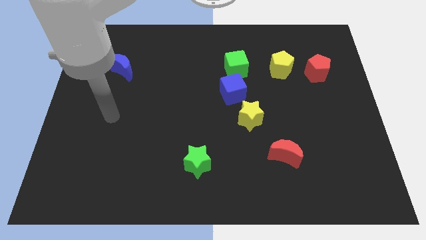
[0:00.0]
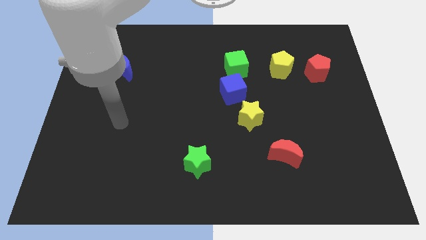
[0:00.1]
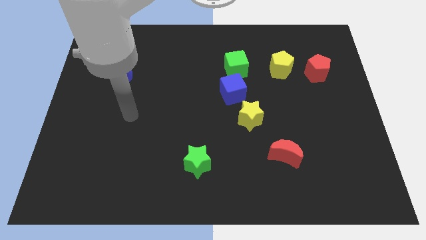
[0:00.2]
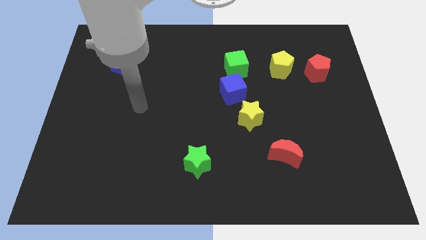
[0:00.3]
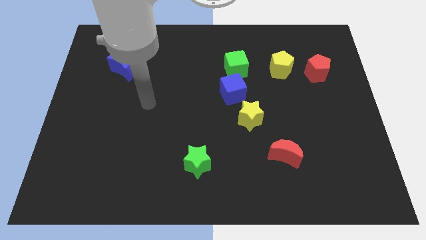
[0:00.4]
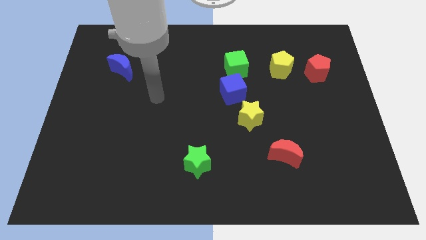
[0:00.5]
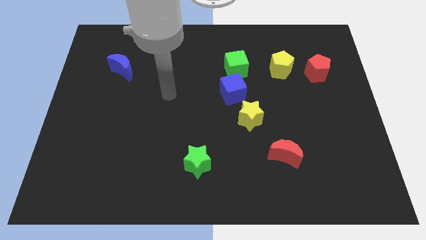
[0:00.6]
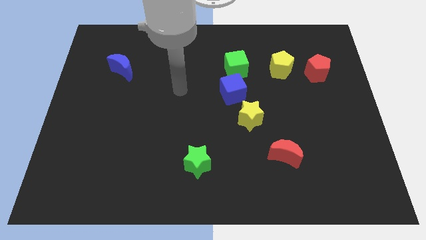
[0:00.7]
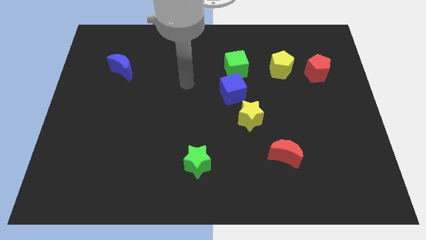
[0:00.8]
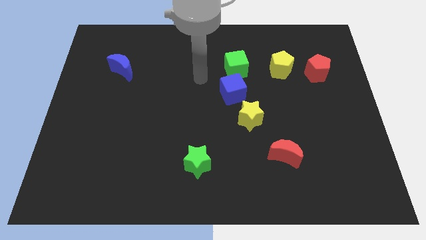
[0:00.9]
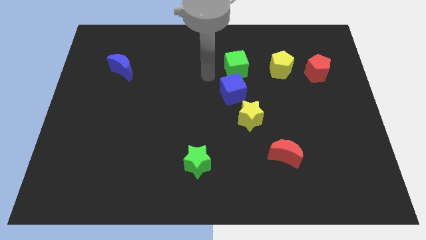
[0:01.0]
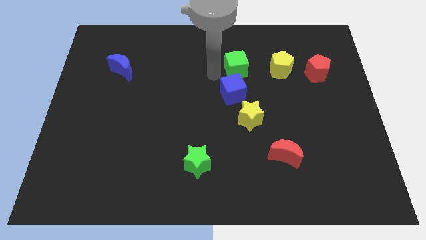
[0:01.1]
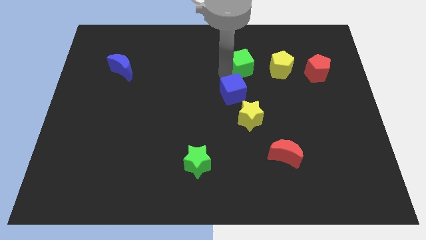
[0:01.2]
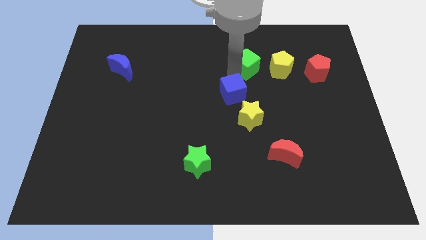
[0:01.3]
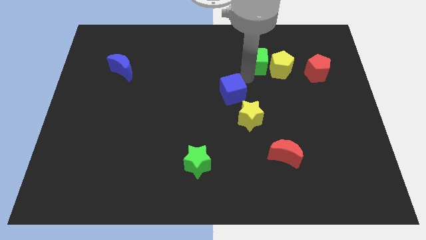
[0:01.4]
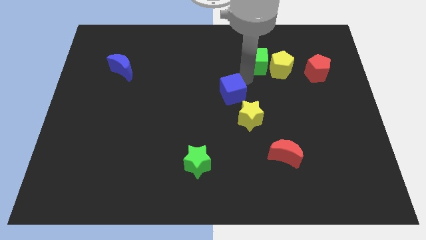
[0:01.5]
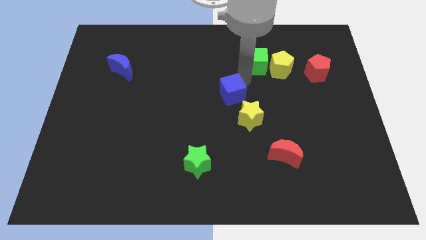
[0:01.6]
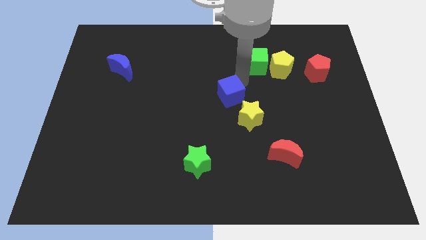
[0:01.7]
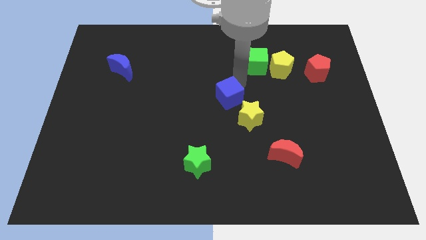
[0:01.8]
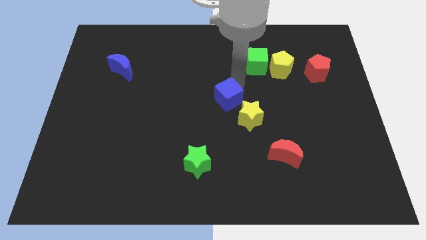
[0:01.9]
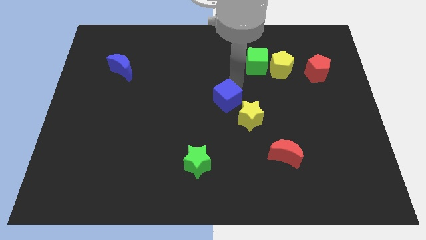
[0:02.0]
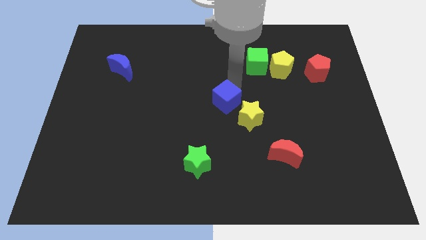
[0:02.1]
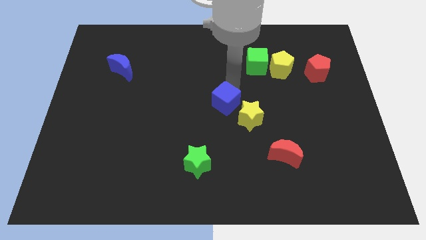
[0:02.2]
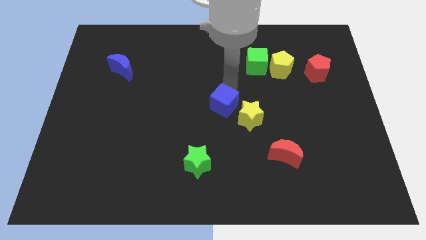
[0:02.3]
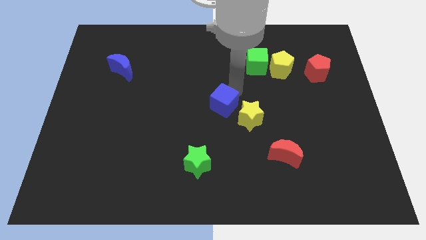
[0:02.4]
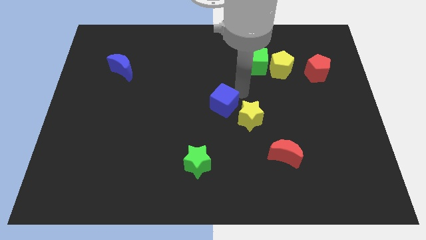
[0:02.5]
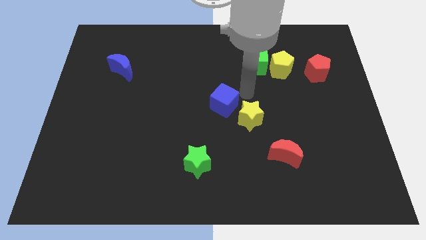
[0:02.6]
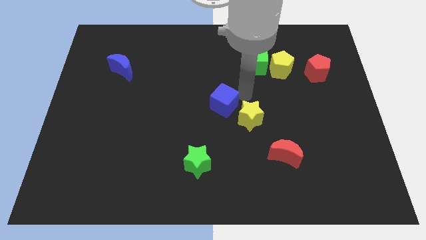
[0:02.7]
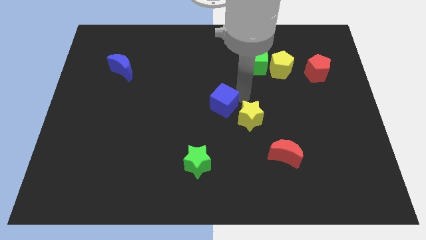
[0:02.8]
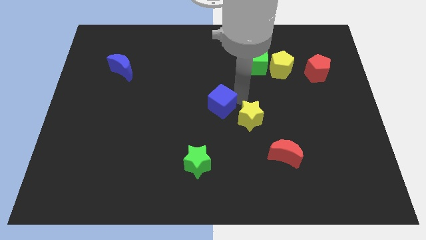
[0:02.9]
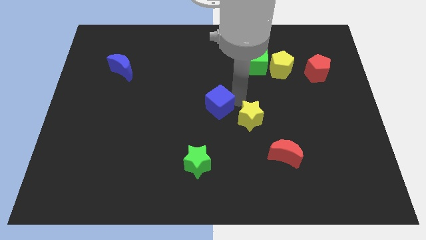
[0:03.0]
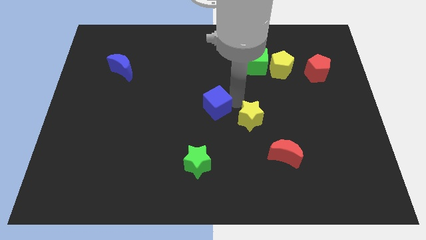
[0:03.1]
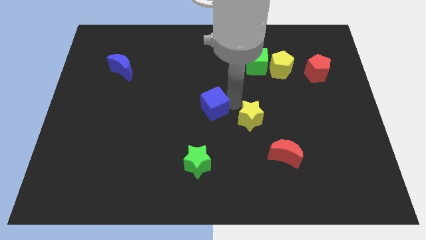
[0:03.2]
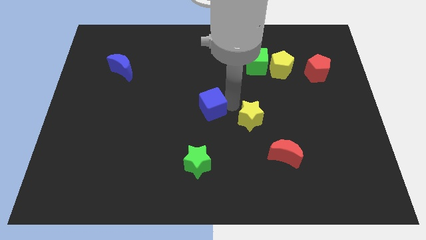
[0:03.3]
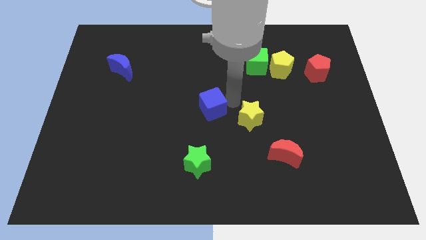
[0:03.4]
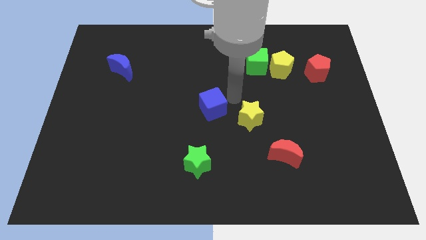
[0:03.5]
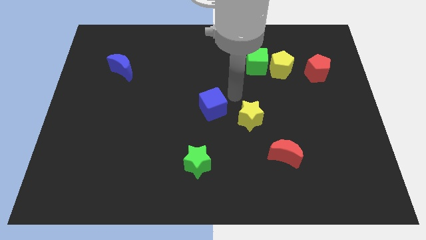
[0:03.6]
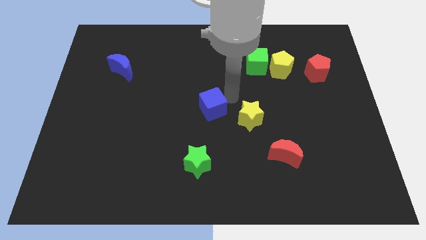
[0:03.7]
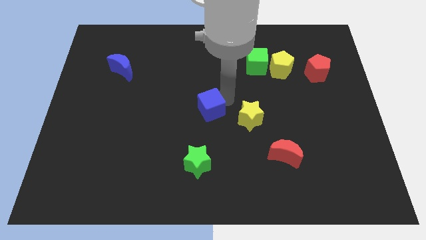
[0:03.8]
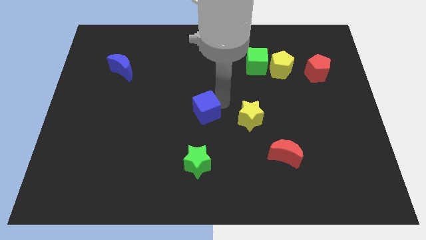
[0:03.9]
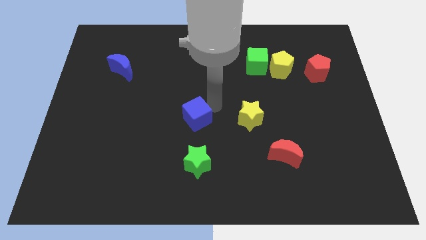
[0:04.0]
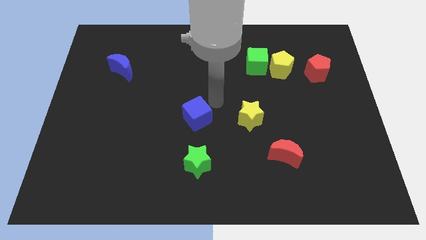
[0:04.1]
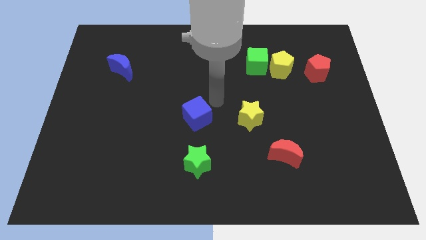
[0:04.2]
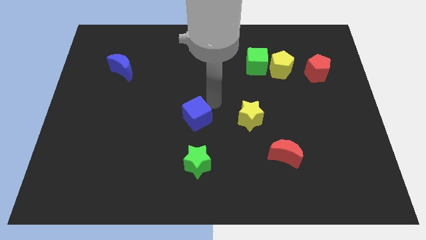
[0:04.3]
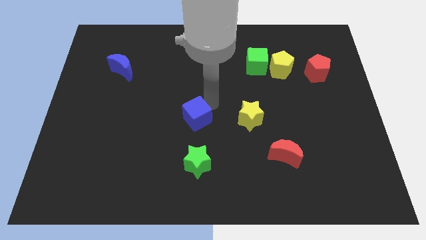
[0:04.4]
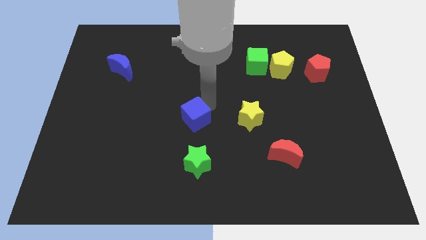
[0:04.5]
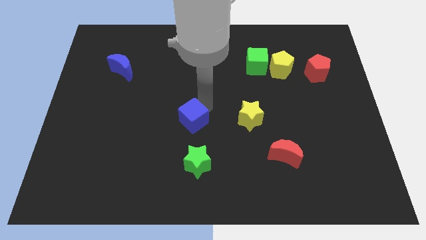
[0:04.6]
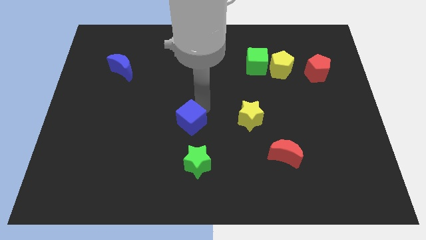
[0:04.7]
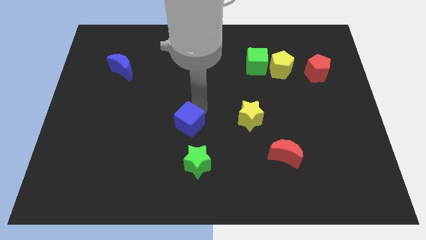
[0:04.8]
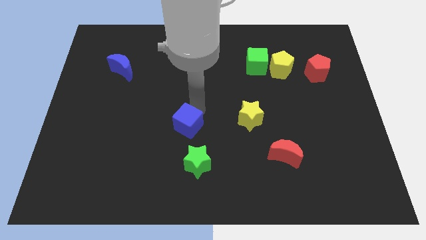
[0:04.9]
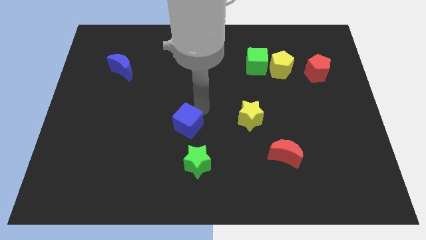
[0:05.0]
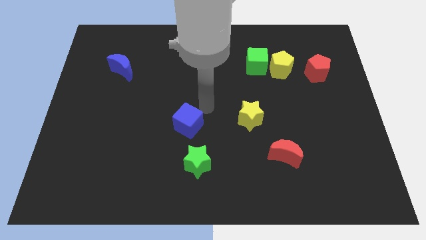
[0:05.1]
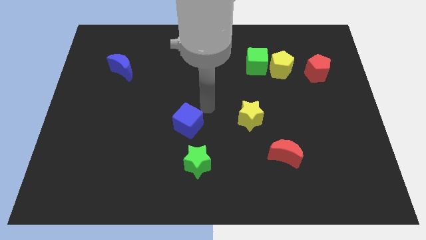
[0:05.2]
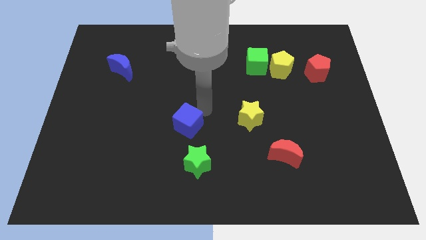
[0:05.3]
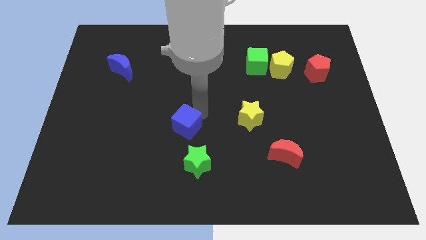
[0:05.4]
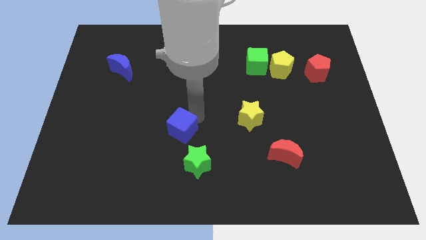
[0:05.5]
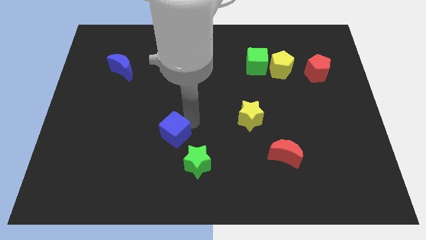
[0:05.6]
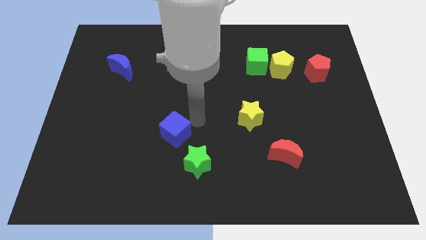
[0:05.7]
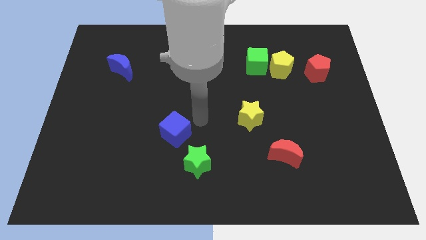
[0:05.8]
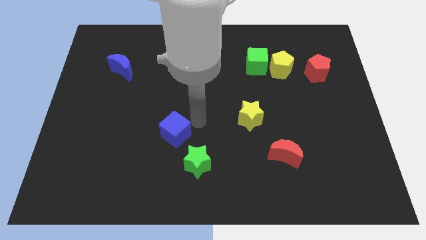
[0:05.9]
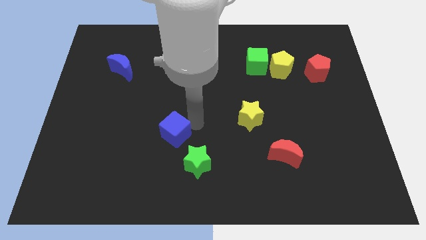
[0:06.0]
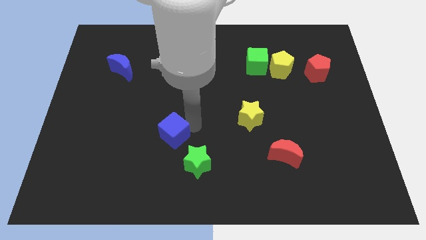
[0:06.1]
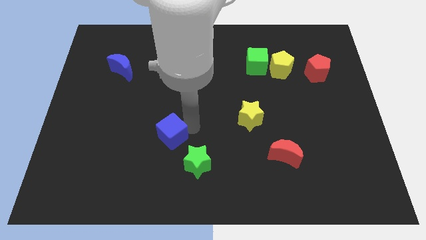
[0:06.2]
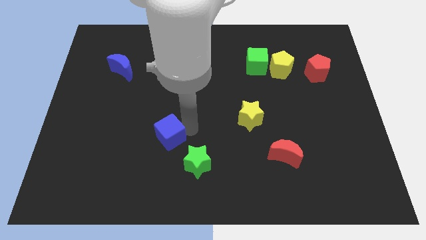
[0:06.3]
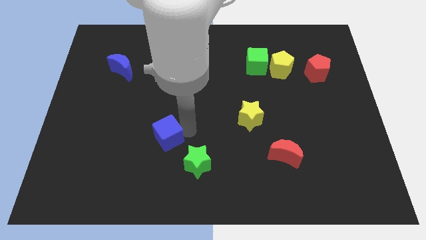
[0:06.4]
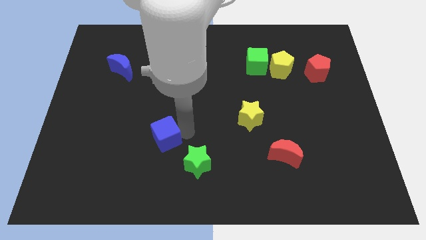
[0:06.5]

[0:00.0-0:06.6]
slide the blue cube diagonally downwards and left

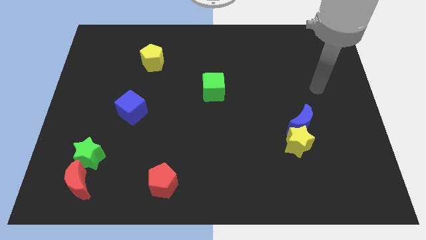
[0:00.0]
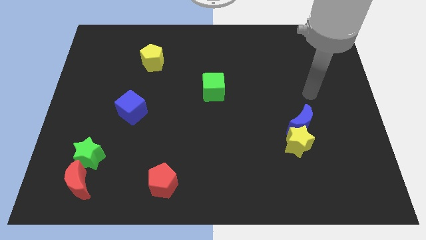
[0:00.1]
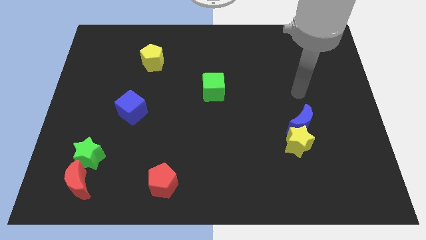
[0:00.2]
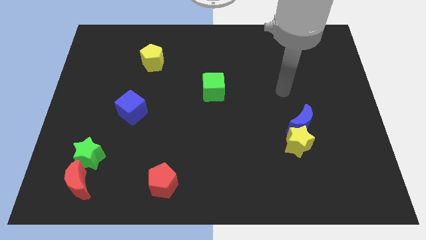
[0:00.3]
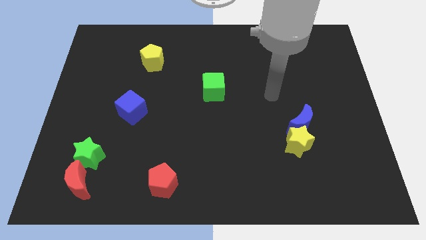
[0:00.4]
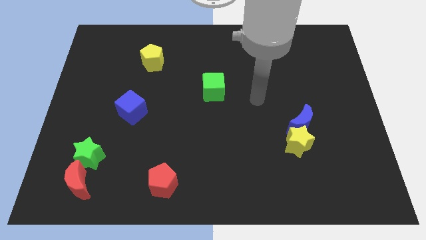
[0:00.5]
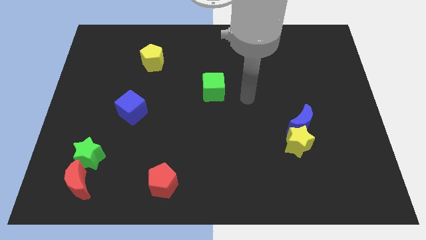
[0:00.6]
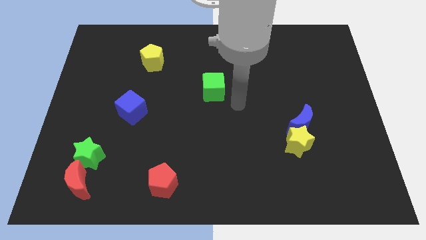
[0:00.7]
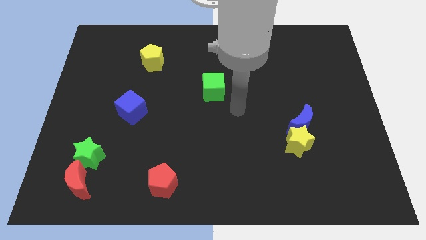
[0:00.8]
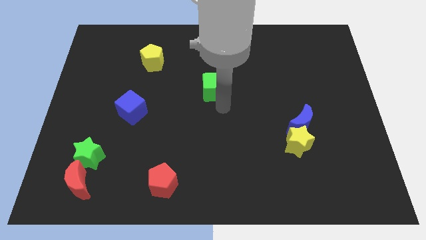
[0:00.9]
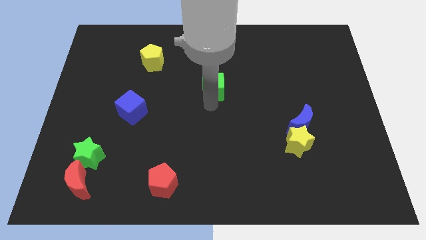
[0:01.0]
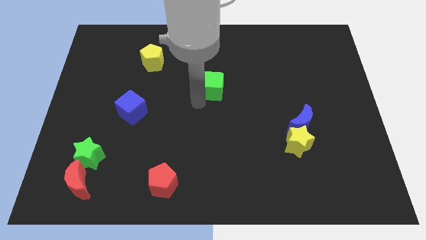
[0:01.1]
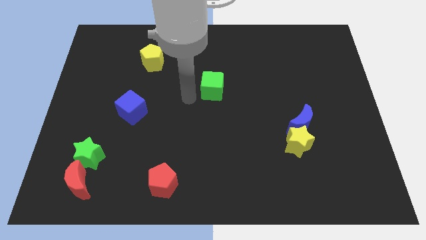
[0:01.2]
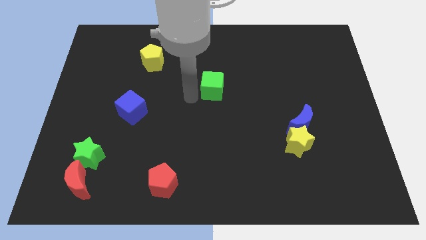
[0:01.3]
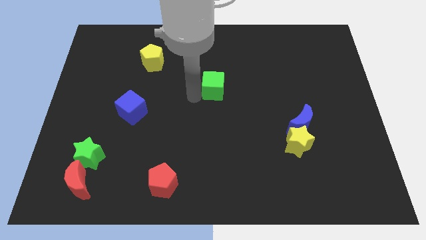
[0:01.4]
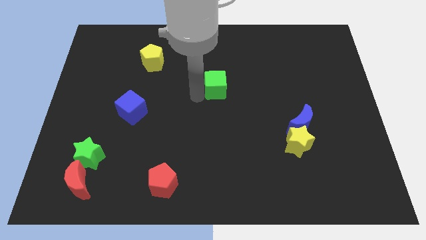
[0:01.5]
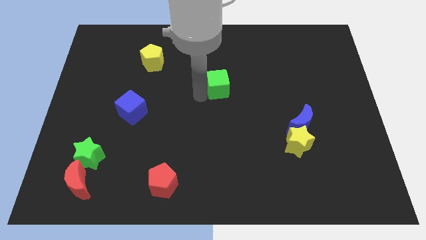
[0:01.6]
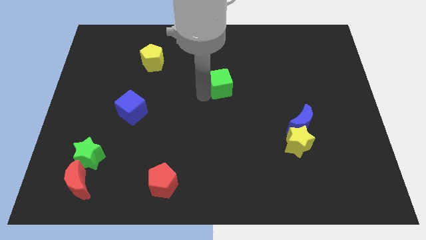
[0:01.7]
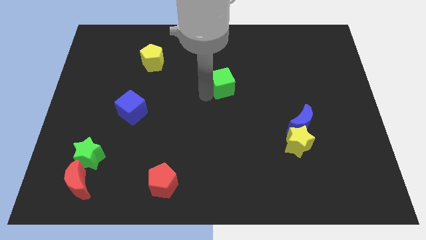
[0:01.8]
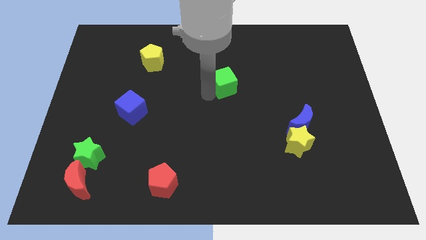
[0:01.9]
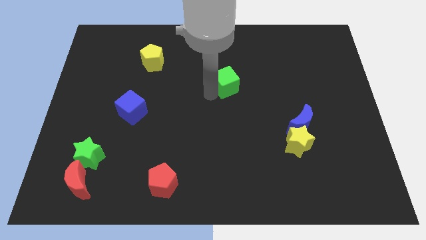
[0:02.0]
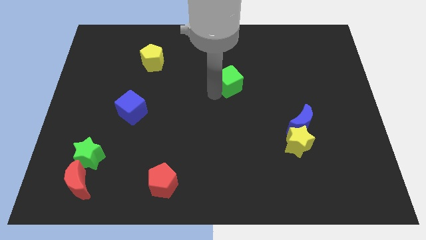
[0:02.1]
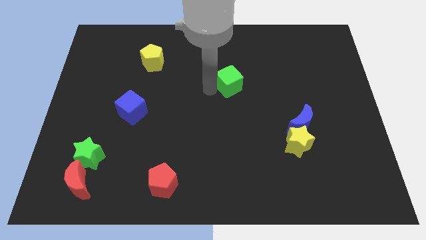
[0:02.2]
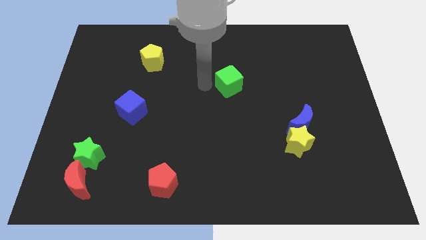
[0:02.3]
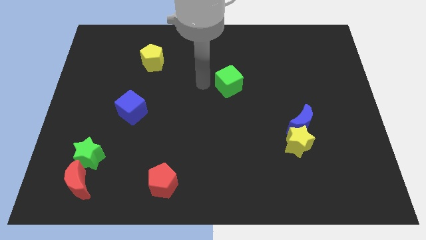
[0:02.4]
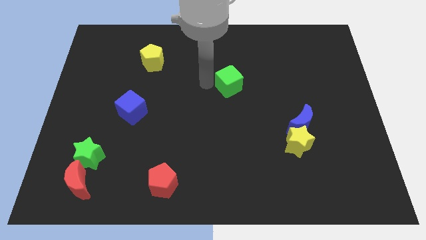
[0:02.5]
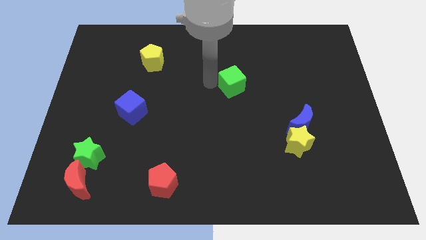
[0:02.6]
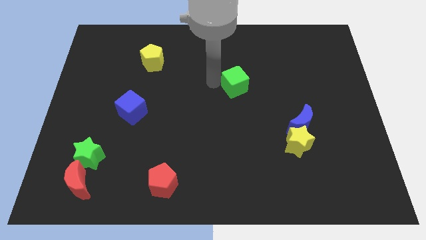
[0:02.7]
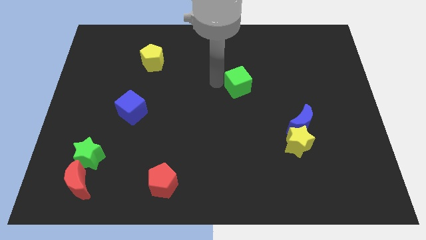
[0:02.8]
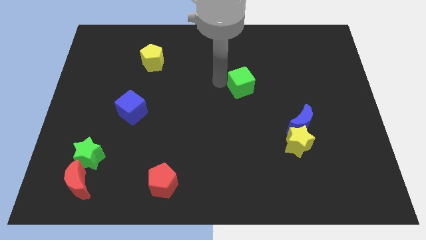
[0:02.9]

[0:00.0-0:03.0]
slightly move the green cube to the right
